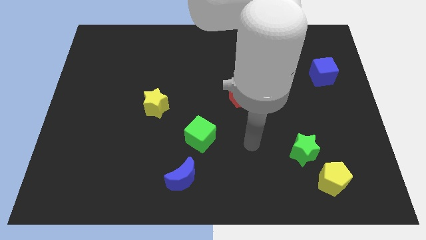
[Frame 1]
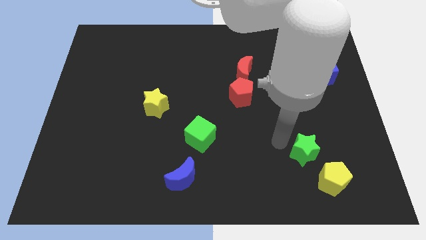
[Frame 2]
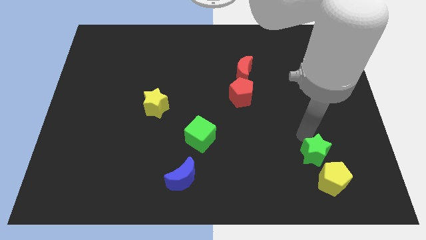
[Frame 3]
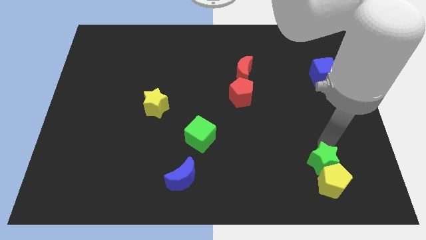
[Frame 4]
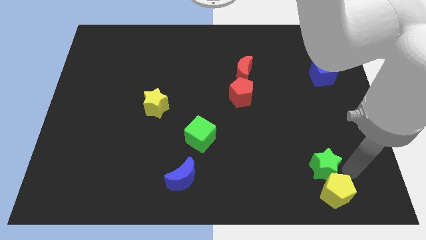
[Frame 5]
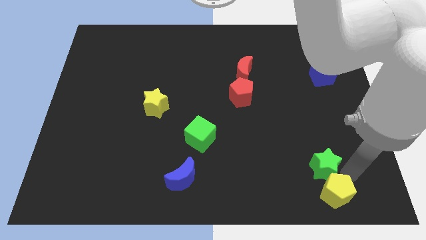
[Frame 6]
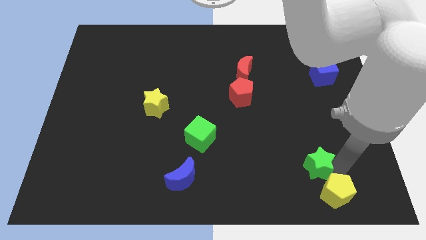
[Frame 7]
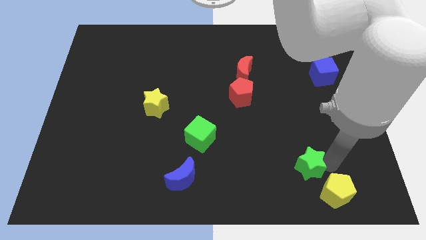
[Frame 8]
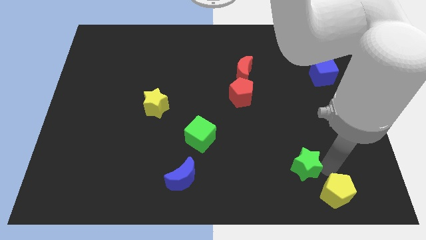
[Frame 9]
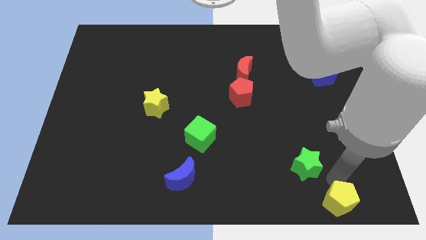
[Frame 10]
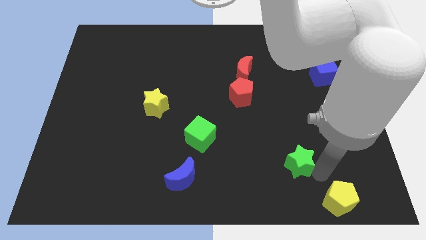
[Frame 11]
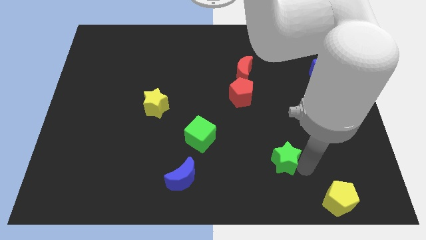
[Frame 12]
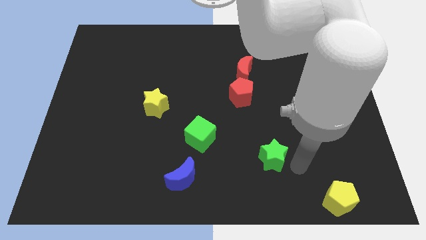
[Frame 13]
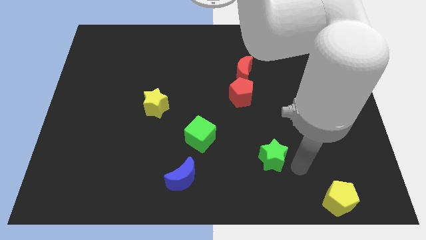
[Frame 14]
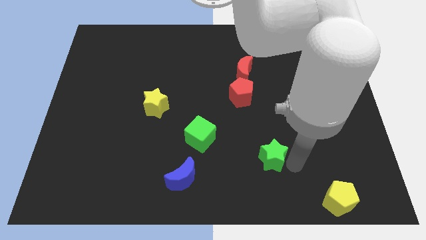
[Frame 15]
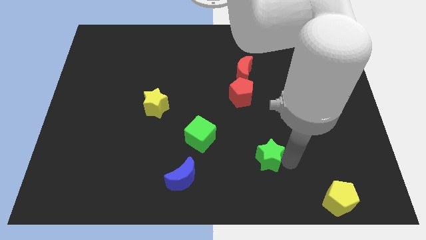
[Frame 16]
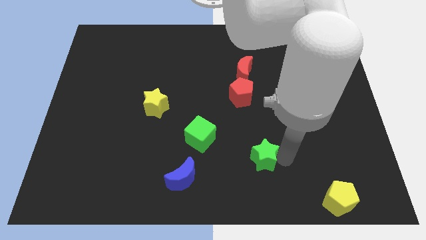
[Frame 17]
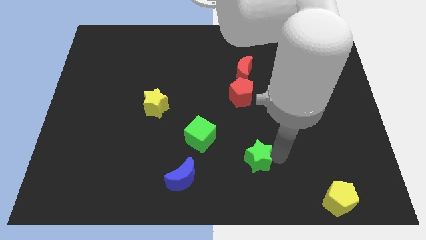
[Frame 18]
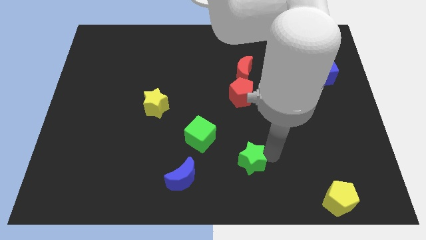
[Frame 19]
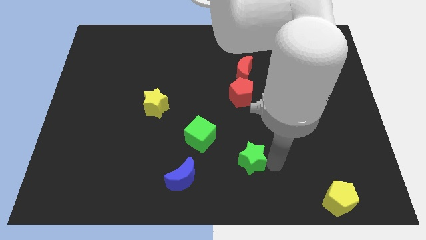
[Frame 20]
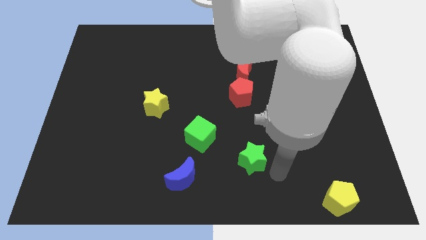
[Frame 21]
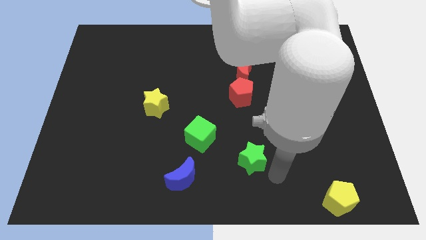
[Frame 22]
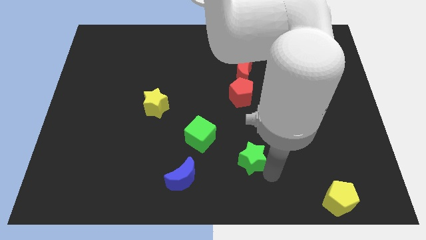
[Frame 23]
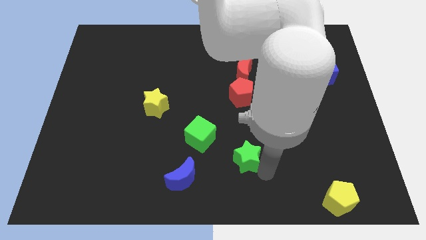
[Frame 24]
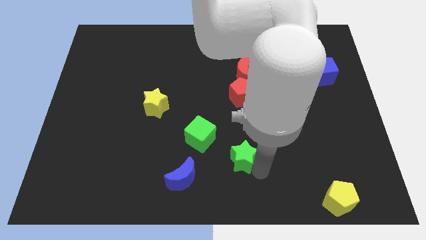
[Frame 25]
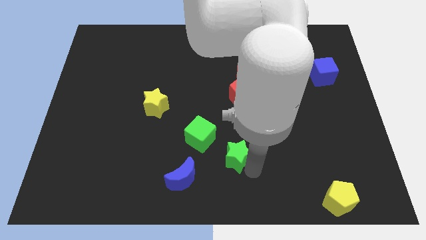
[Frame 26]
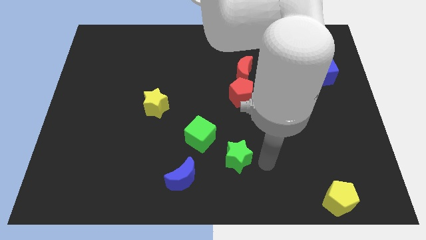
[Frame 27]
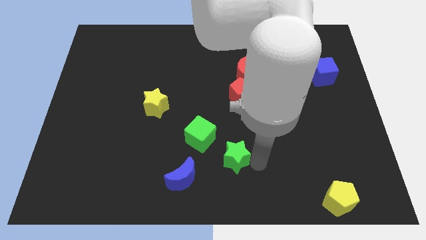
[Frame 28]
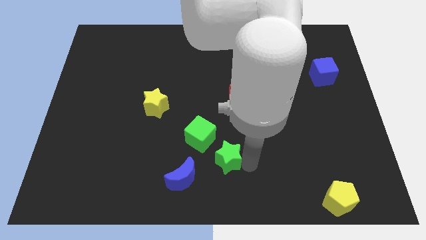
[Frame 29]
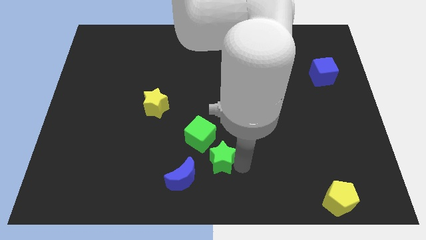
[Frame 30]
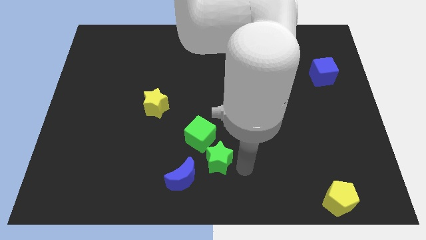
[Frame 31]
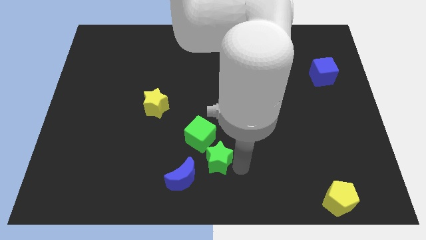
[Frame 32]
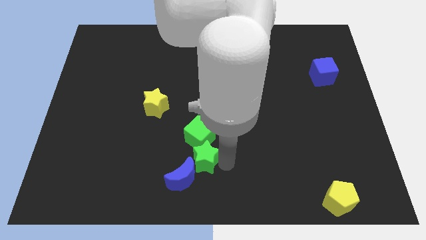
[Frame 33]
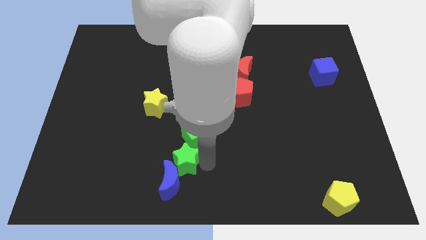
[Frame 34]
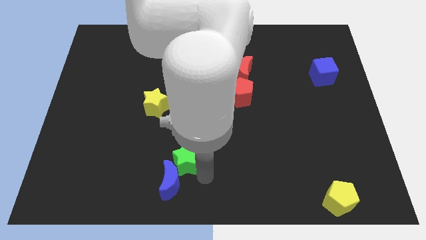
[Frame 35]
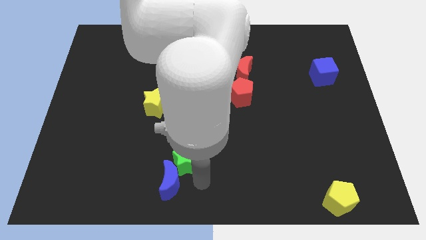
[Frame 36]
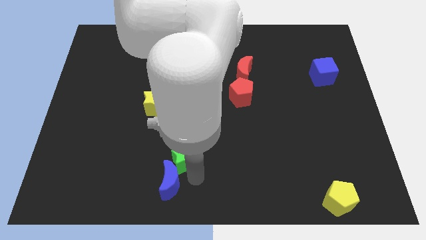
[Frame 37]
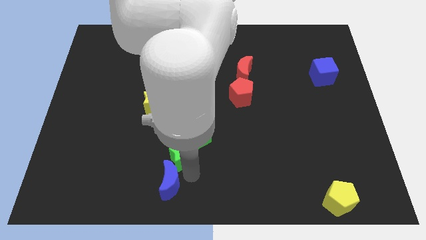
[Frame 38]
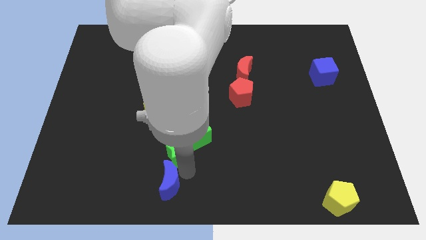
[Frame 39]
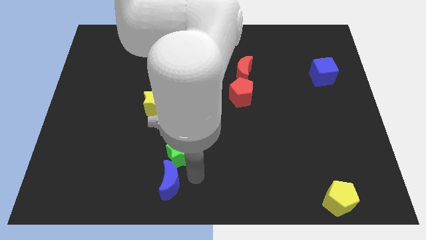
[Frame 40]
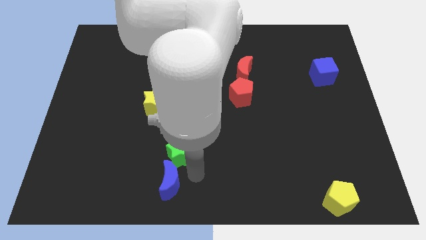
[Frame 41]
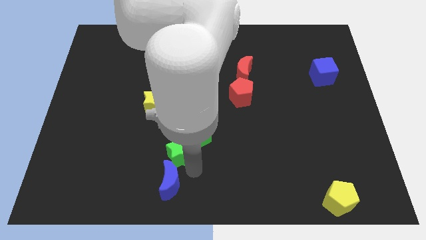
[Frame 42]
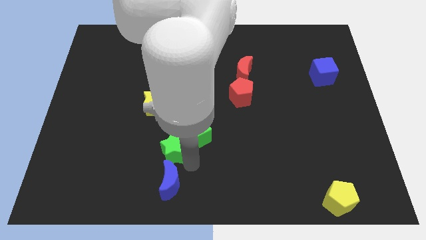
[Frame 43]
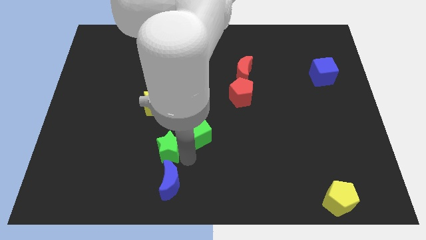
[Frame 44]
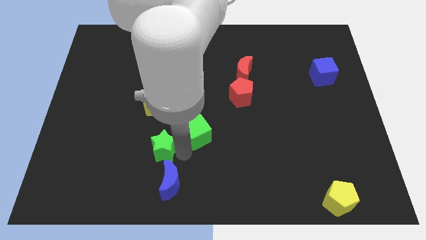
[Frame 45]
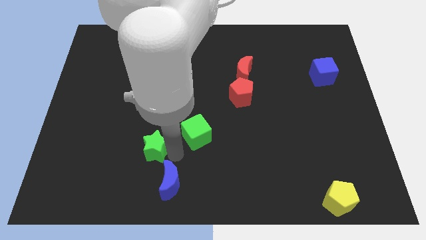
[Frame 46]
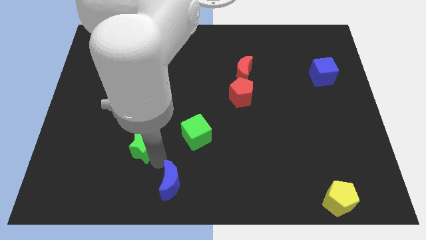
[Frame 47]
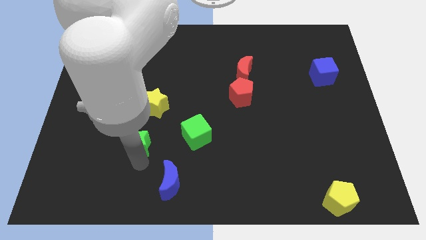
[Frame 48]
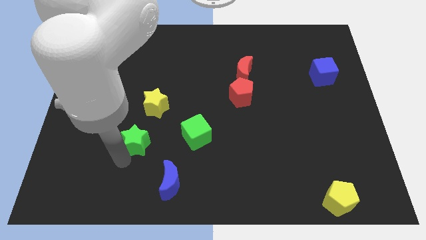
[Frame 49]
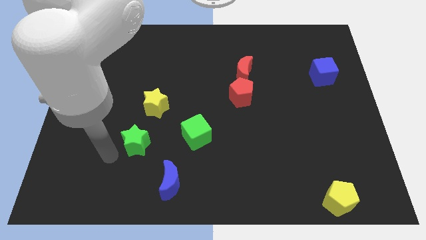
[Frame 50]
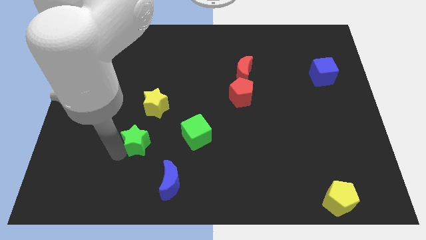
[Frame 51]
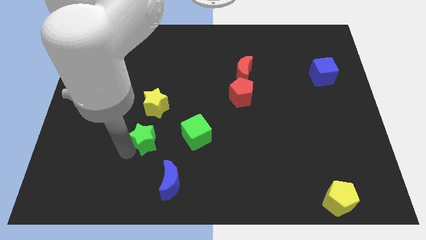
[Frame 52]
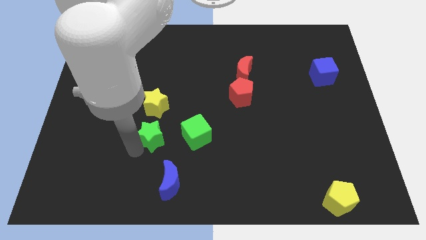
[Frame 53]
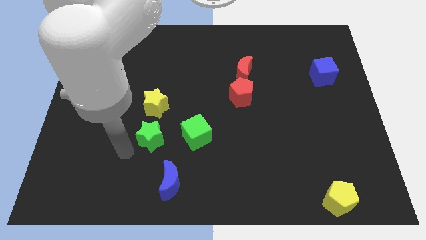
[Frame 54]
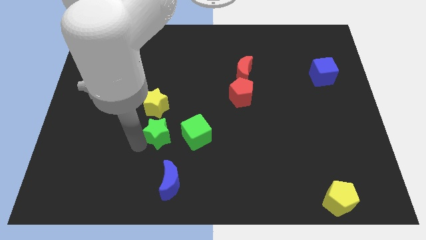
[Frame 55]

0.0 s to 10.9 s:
slide the green star diagonally down and to the right of the yellow star

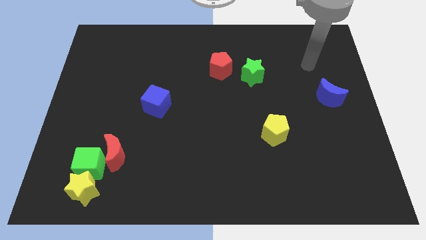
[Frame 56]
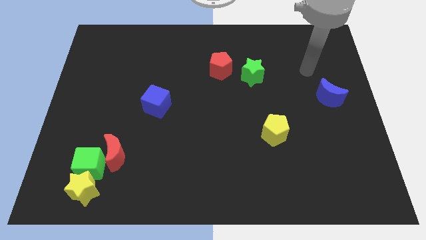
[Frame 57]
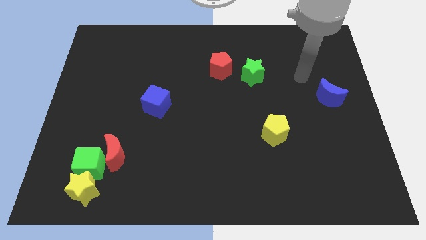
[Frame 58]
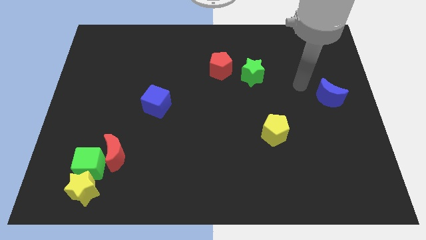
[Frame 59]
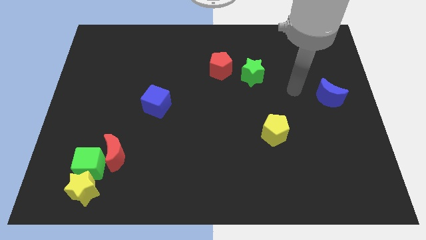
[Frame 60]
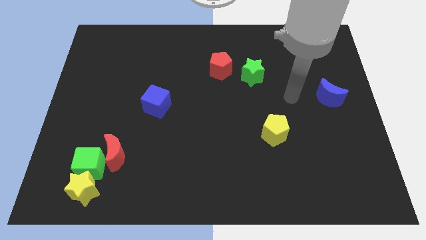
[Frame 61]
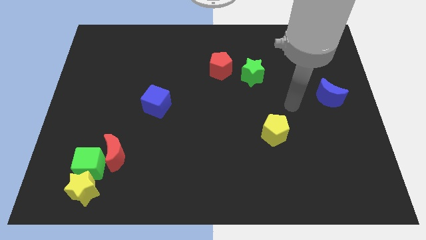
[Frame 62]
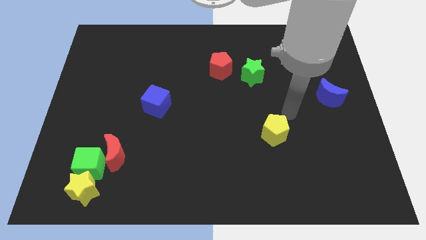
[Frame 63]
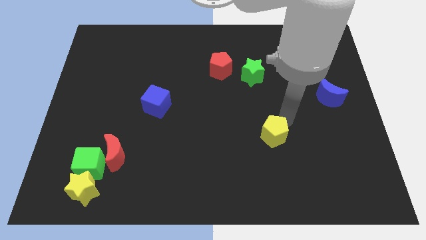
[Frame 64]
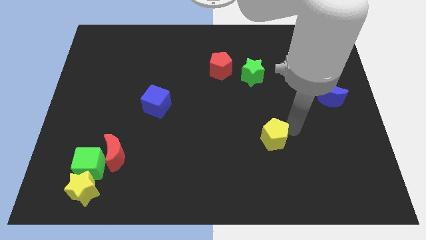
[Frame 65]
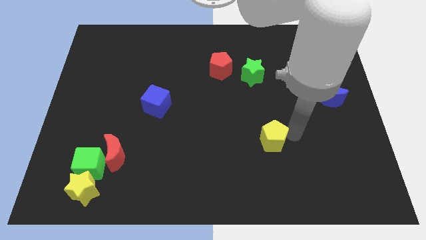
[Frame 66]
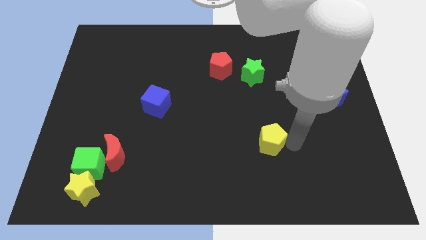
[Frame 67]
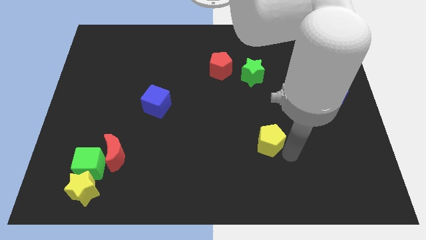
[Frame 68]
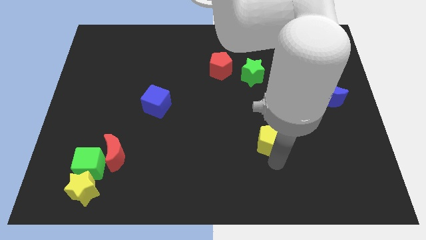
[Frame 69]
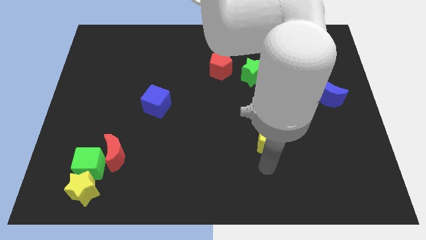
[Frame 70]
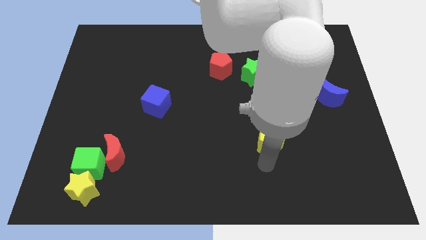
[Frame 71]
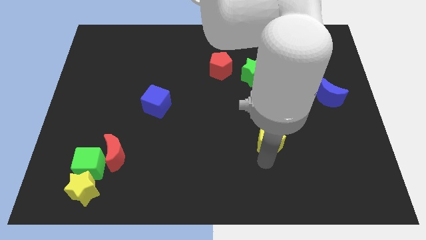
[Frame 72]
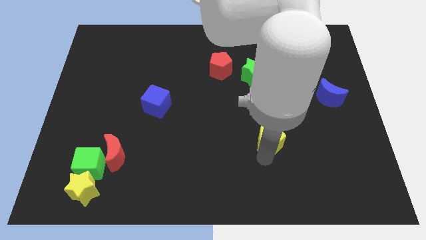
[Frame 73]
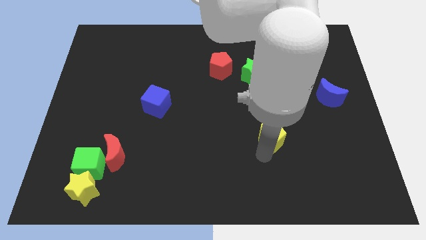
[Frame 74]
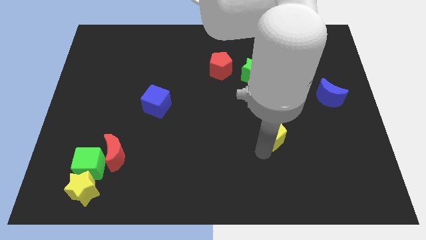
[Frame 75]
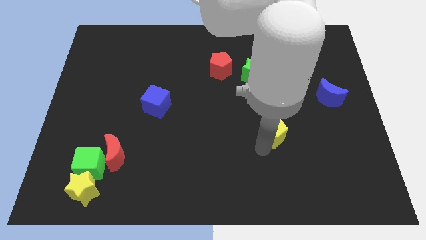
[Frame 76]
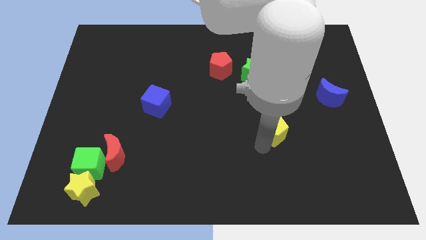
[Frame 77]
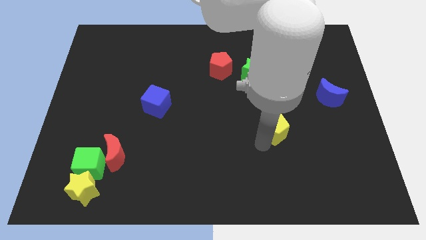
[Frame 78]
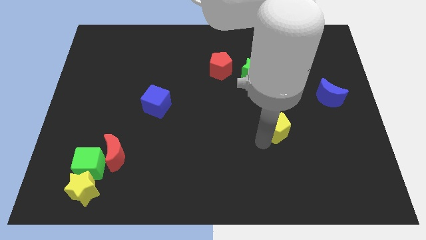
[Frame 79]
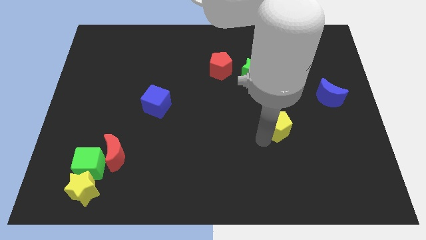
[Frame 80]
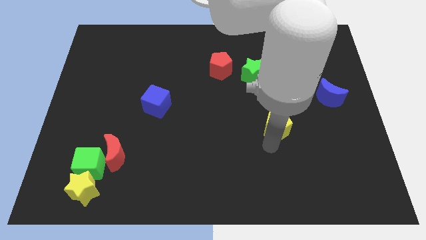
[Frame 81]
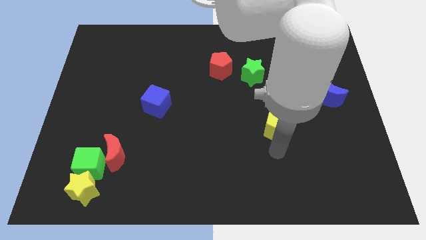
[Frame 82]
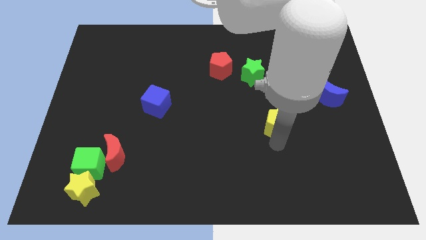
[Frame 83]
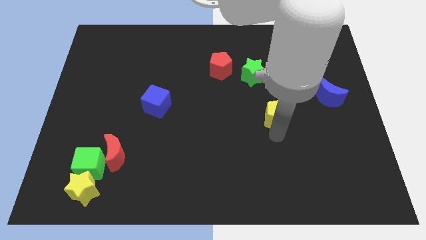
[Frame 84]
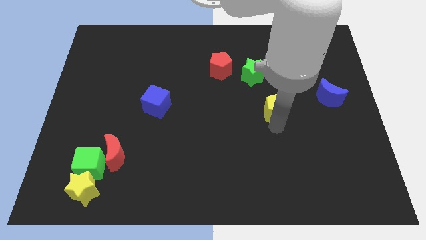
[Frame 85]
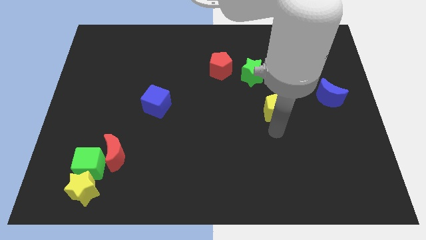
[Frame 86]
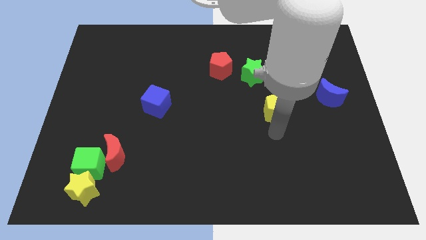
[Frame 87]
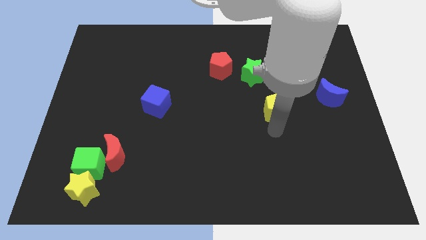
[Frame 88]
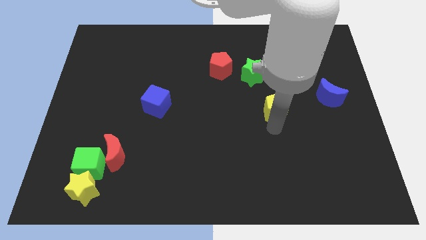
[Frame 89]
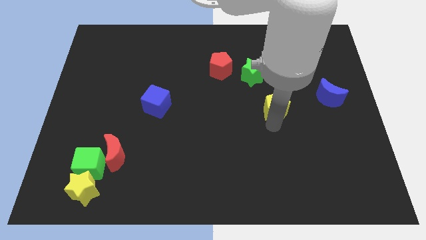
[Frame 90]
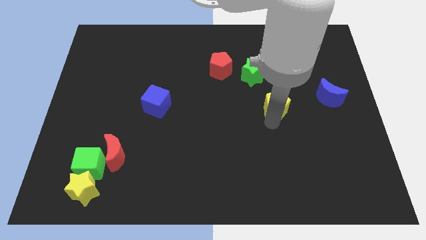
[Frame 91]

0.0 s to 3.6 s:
put the yellow pentagon diagonally down and to the right of the green star
